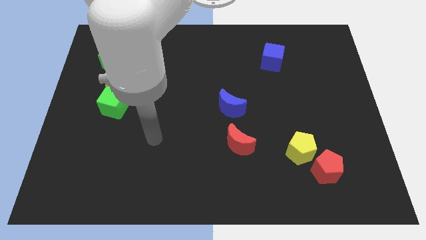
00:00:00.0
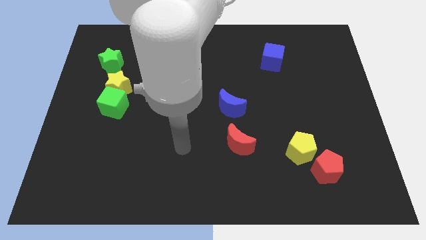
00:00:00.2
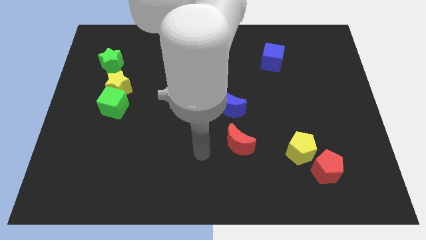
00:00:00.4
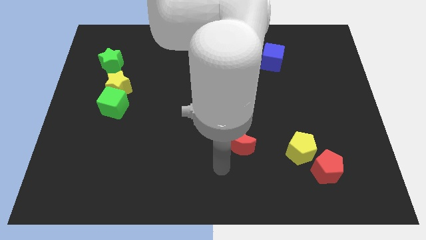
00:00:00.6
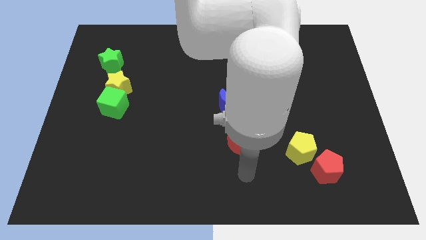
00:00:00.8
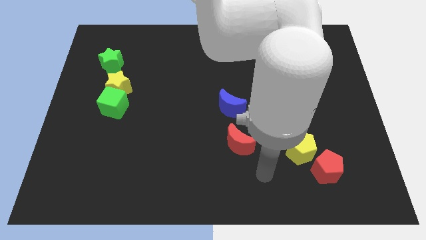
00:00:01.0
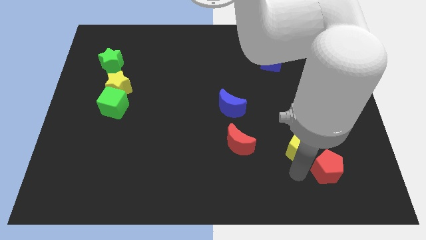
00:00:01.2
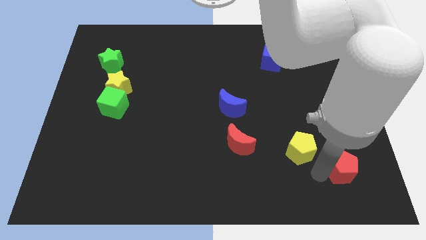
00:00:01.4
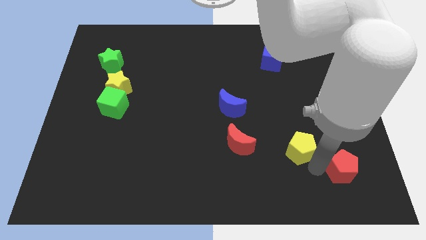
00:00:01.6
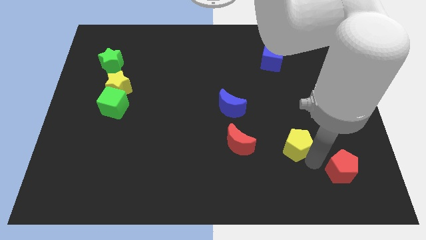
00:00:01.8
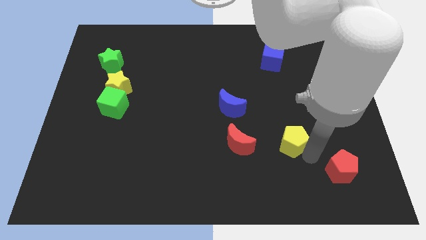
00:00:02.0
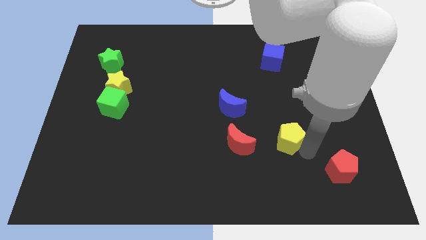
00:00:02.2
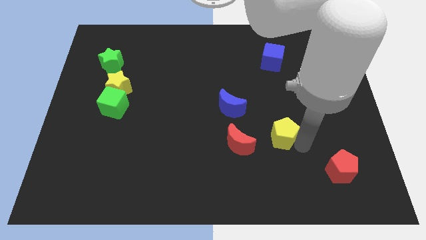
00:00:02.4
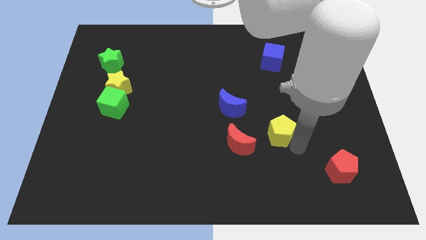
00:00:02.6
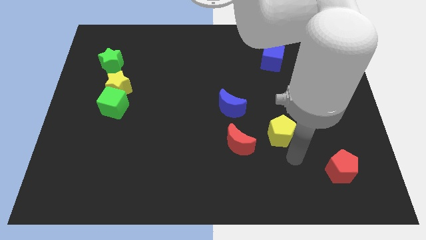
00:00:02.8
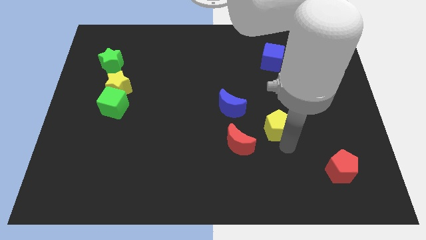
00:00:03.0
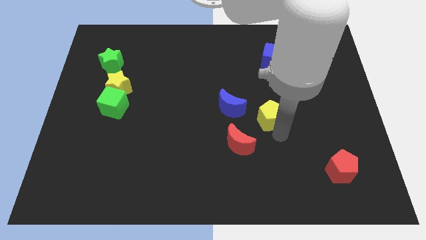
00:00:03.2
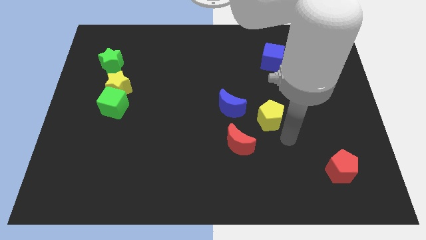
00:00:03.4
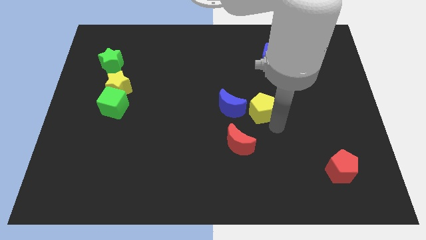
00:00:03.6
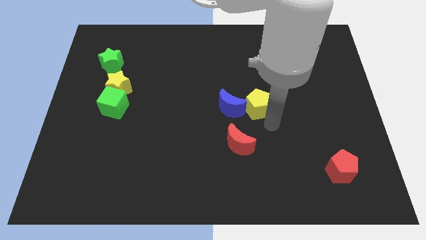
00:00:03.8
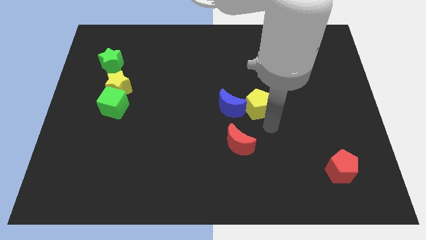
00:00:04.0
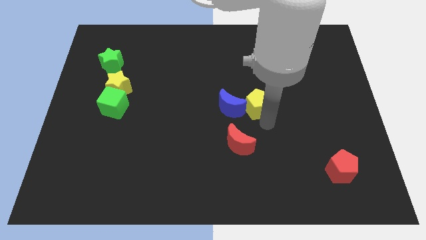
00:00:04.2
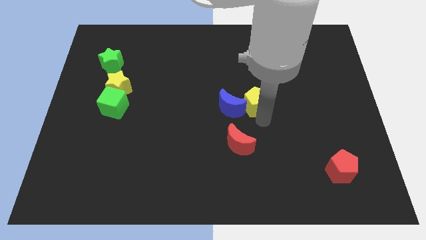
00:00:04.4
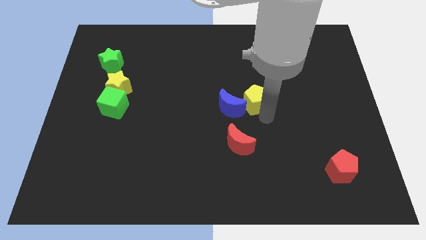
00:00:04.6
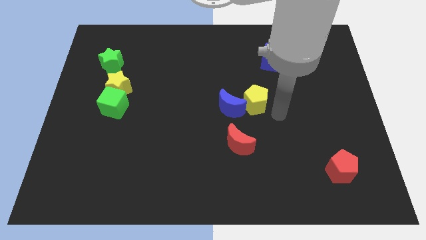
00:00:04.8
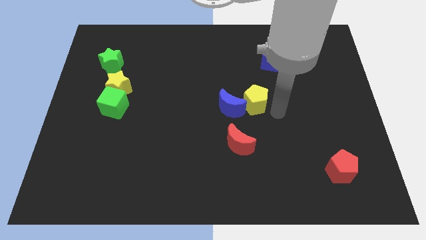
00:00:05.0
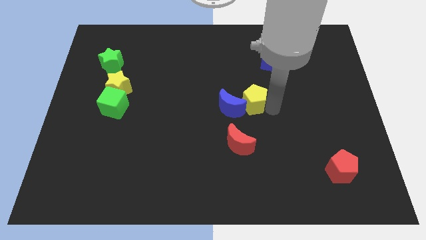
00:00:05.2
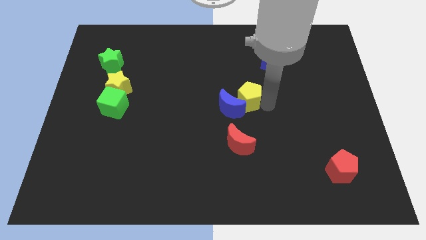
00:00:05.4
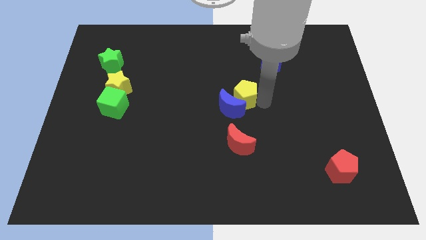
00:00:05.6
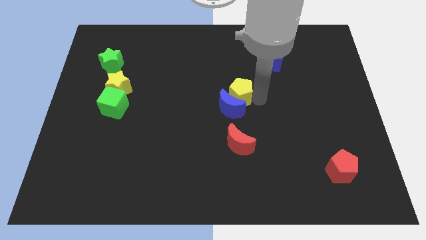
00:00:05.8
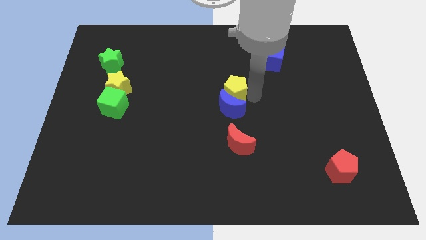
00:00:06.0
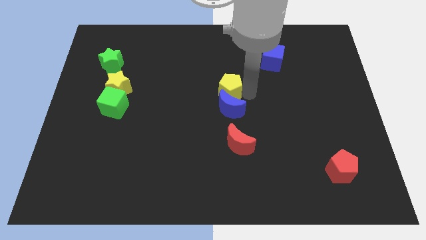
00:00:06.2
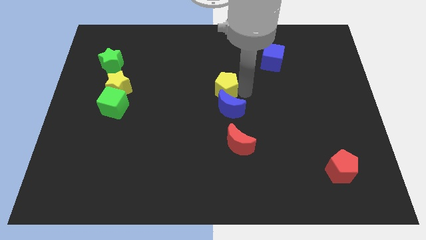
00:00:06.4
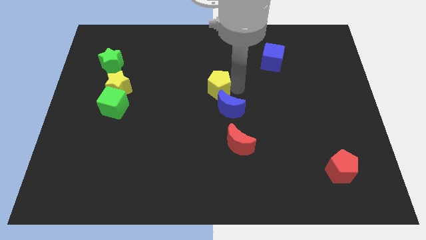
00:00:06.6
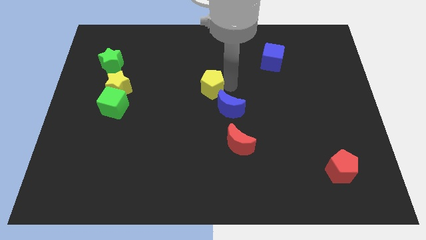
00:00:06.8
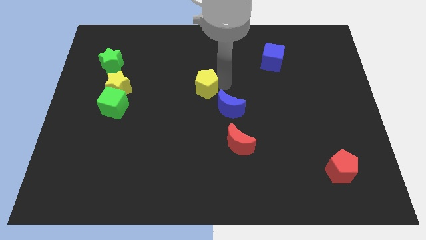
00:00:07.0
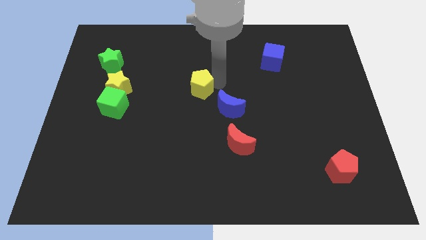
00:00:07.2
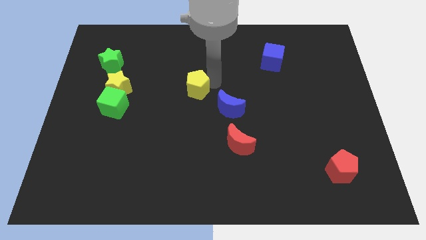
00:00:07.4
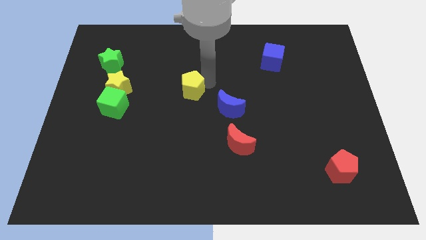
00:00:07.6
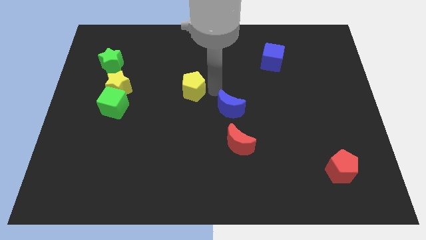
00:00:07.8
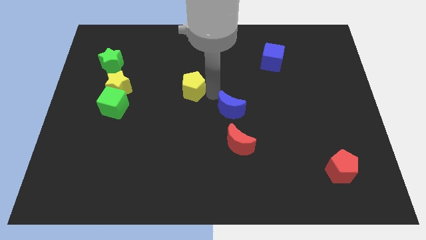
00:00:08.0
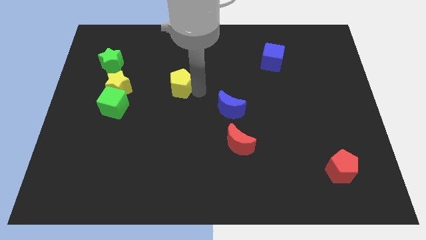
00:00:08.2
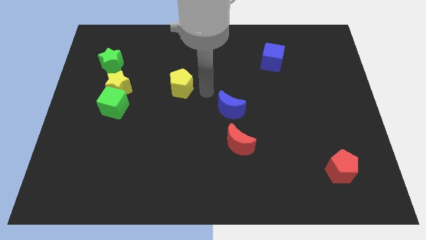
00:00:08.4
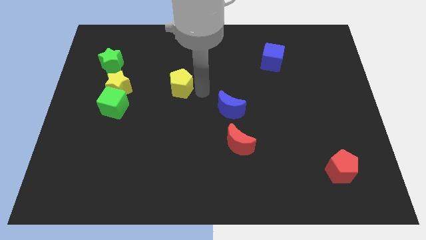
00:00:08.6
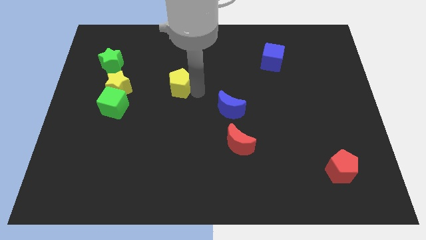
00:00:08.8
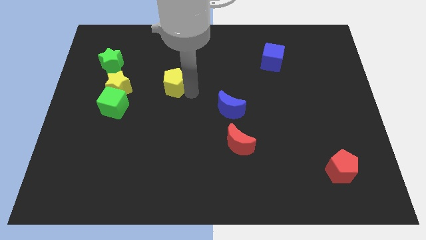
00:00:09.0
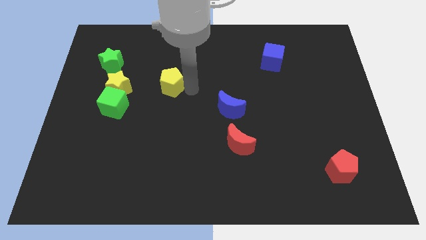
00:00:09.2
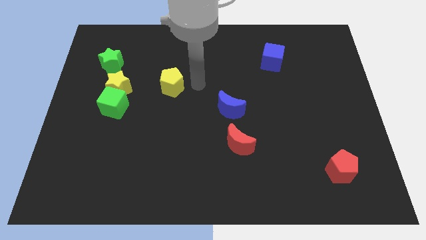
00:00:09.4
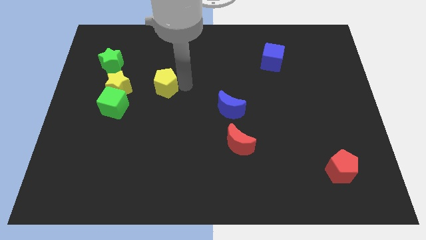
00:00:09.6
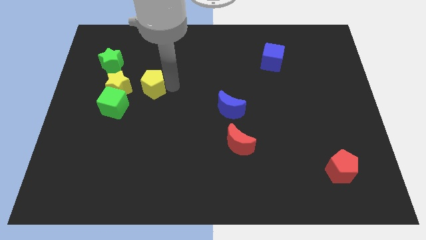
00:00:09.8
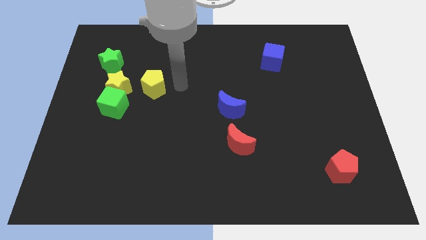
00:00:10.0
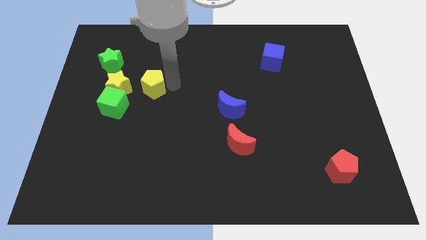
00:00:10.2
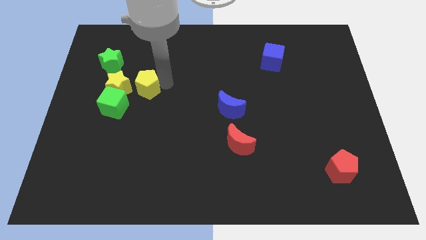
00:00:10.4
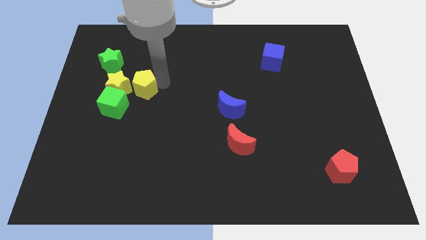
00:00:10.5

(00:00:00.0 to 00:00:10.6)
slide the yellow pentagon to the yellow star

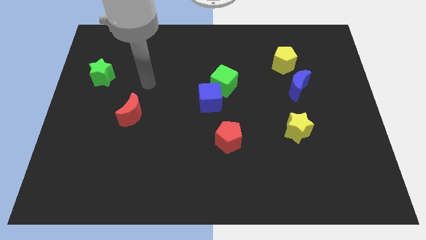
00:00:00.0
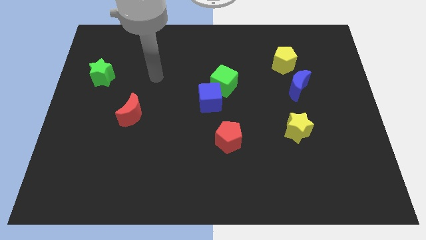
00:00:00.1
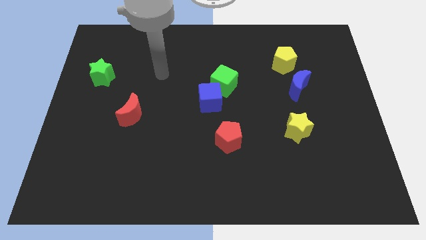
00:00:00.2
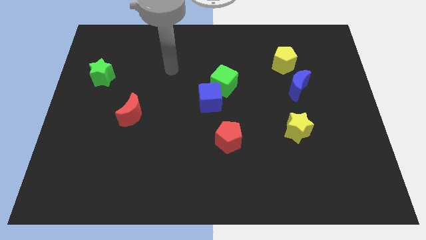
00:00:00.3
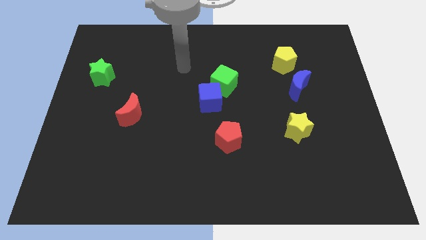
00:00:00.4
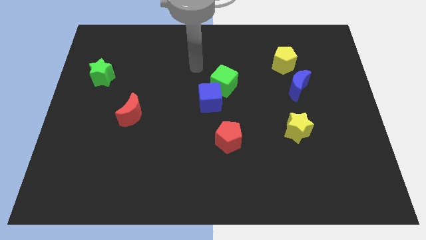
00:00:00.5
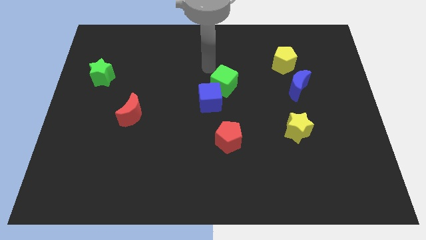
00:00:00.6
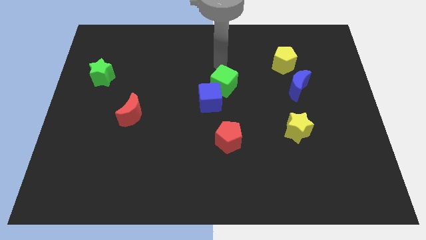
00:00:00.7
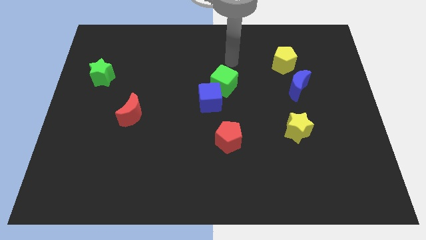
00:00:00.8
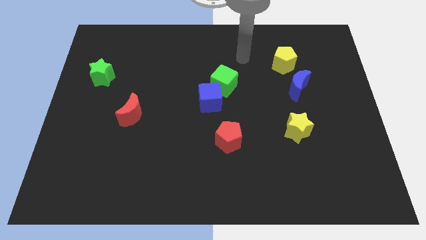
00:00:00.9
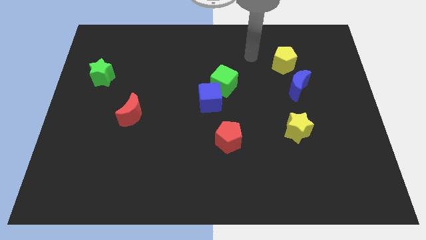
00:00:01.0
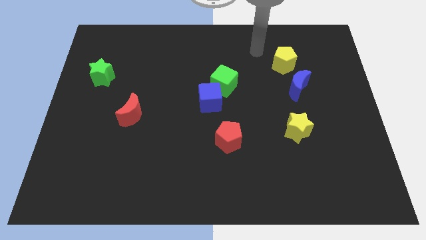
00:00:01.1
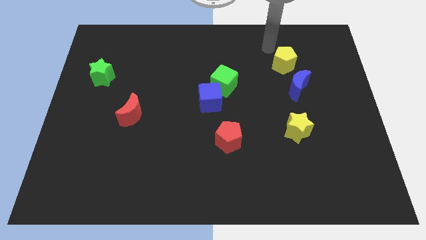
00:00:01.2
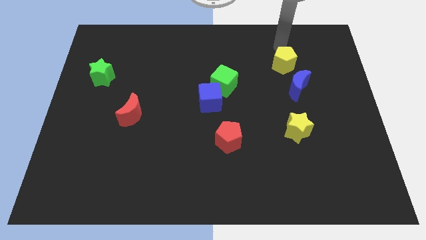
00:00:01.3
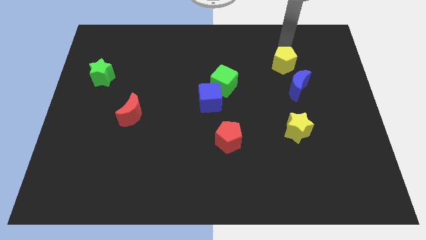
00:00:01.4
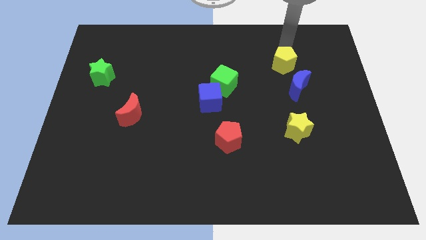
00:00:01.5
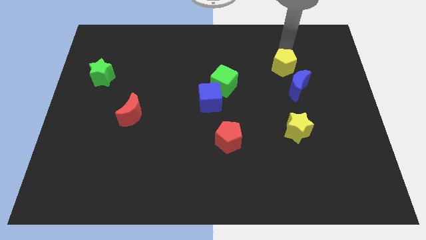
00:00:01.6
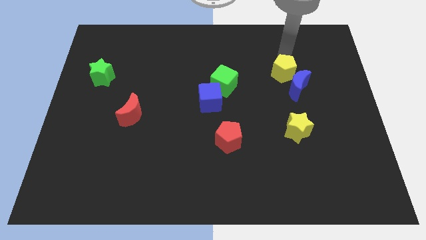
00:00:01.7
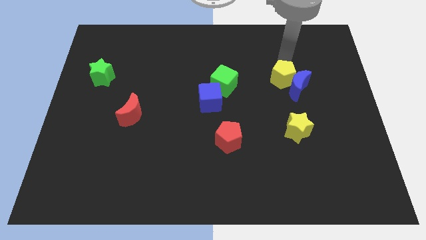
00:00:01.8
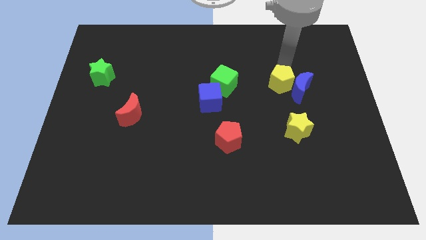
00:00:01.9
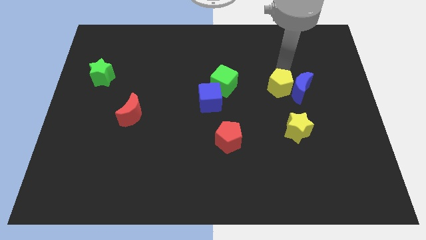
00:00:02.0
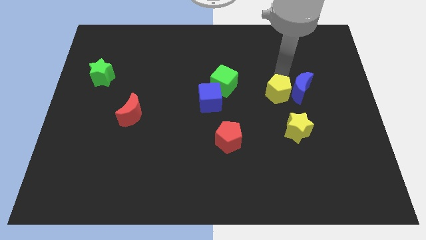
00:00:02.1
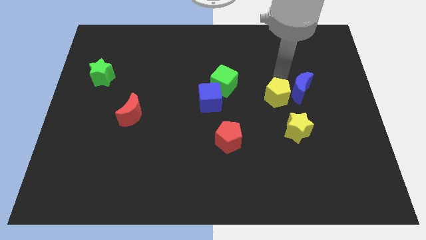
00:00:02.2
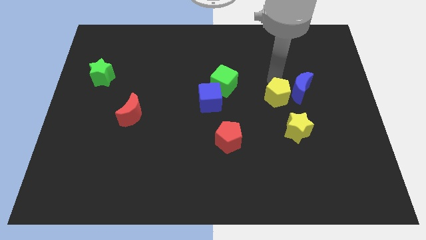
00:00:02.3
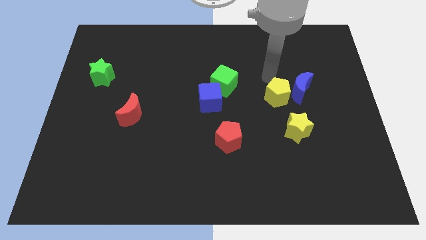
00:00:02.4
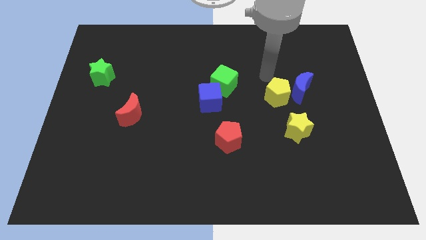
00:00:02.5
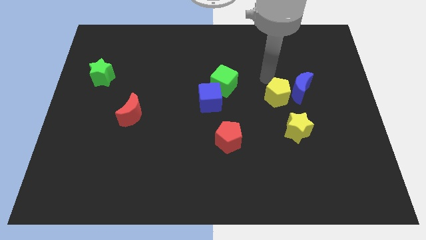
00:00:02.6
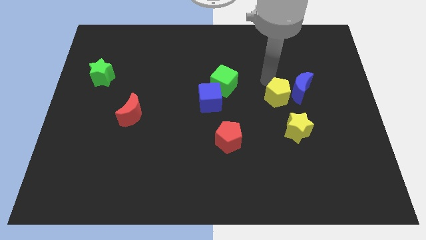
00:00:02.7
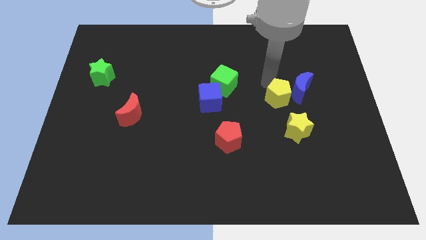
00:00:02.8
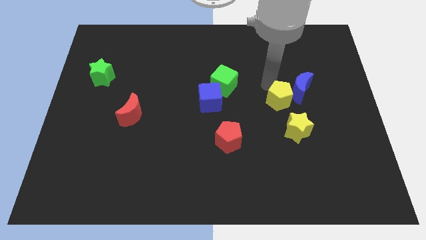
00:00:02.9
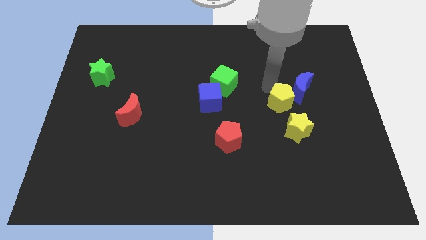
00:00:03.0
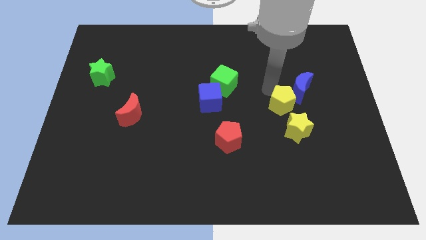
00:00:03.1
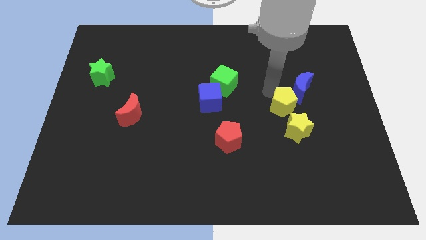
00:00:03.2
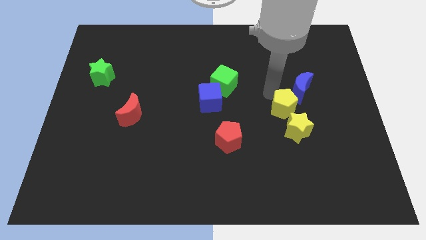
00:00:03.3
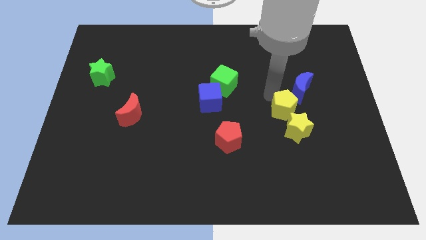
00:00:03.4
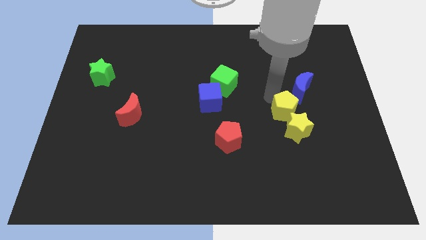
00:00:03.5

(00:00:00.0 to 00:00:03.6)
push the yellow pentagon next to the yellow star
